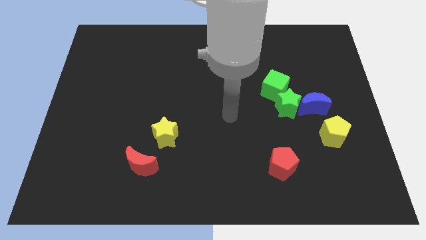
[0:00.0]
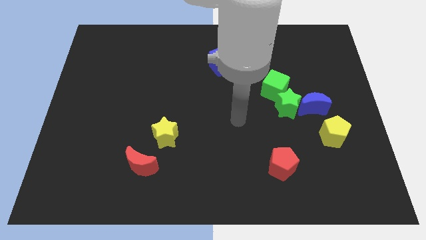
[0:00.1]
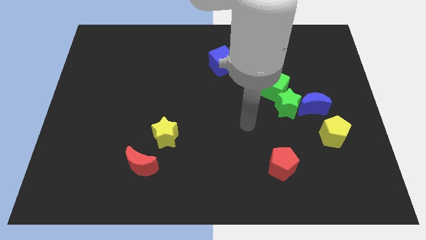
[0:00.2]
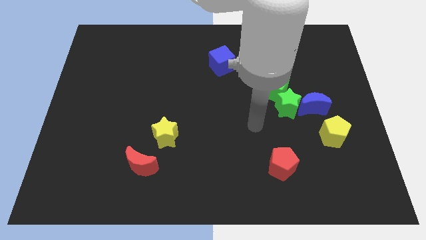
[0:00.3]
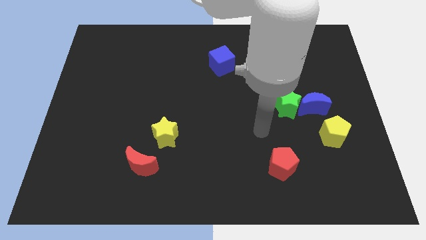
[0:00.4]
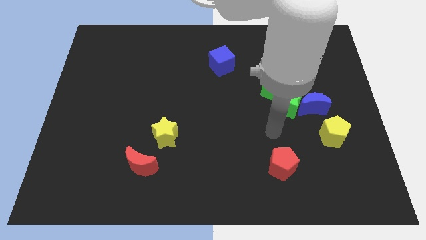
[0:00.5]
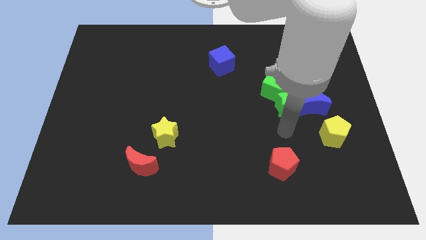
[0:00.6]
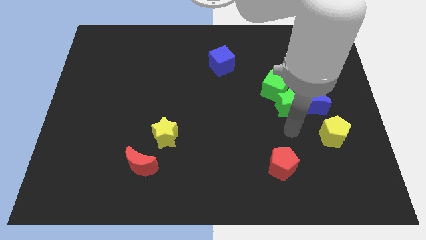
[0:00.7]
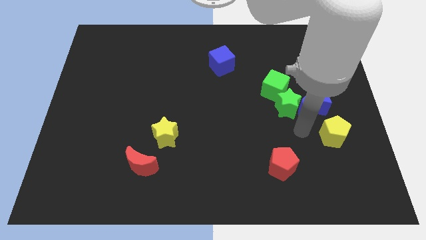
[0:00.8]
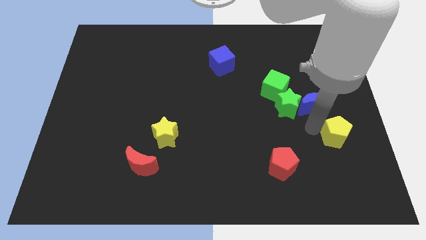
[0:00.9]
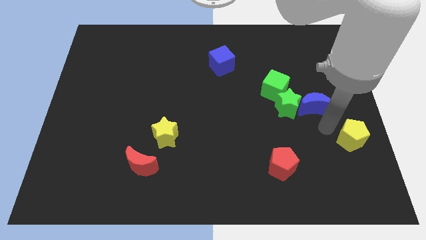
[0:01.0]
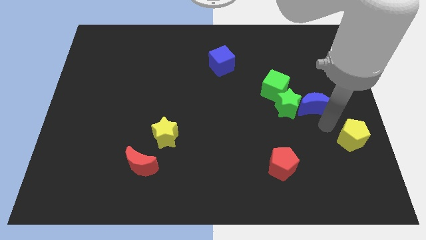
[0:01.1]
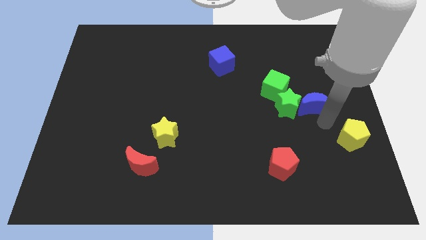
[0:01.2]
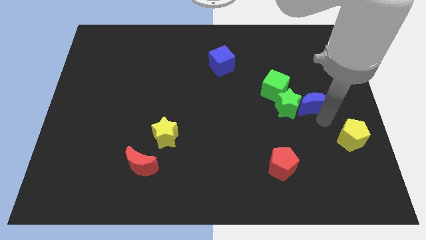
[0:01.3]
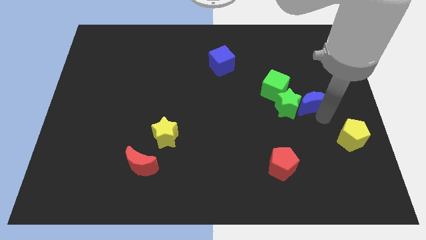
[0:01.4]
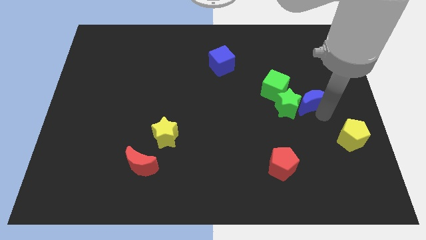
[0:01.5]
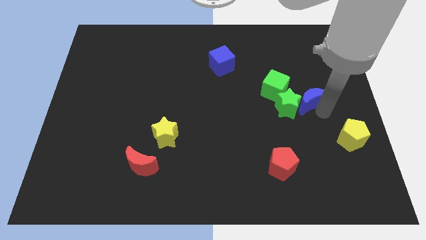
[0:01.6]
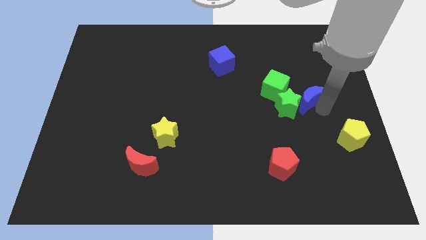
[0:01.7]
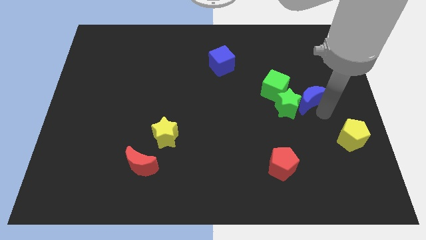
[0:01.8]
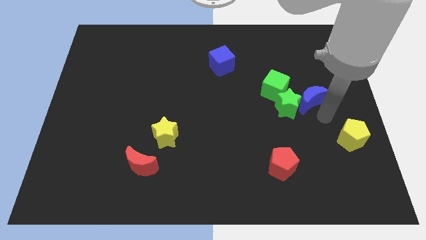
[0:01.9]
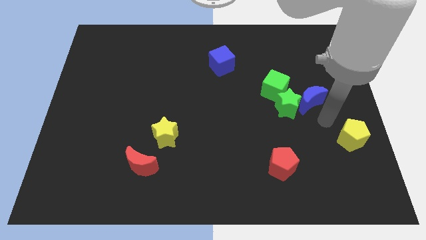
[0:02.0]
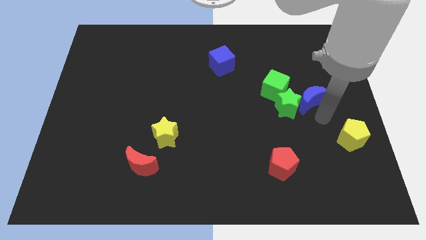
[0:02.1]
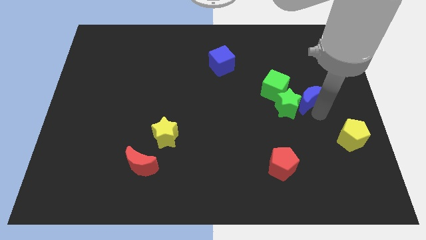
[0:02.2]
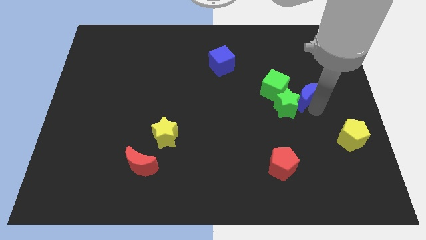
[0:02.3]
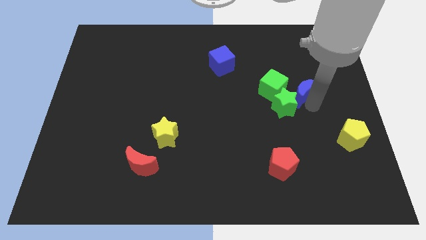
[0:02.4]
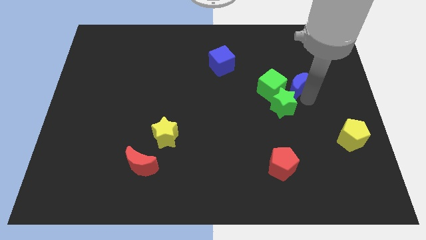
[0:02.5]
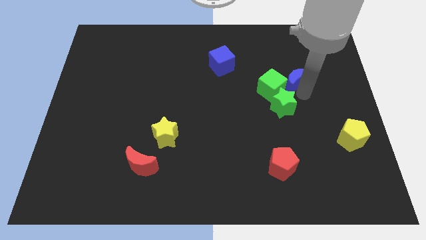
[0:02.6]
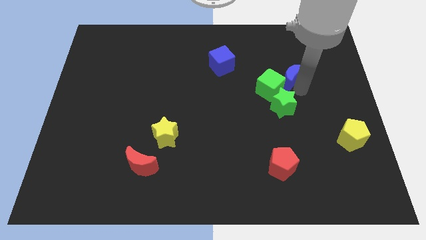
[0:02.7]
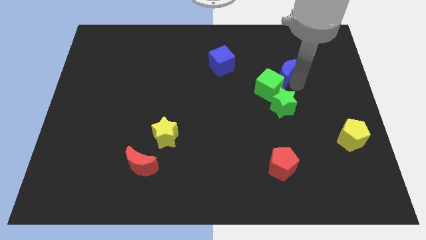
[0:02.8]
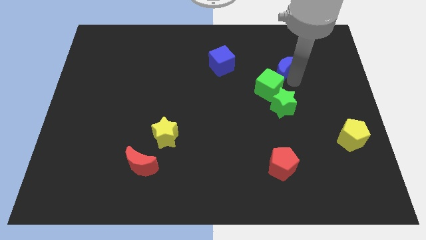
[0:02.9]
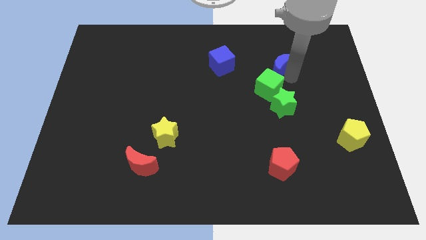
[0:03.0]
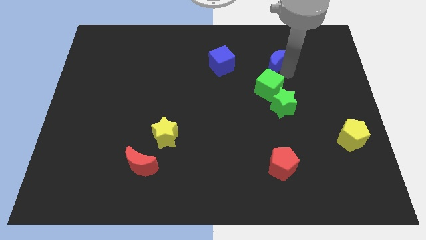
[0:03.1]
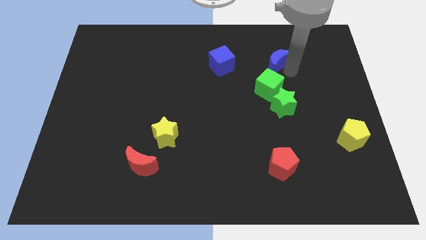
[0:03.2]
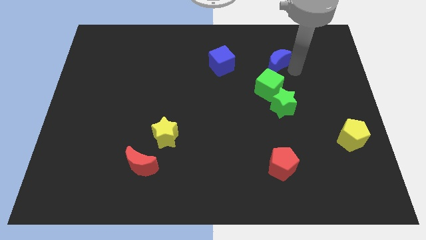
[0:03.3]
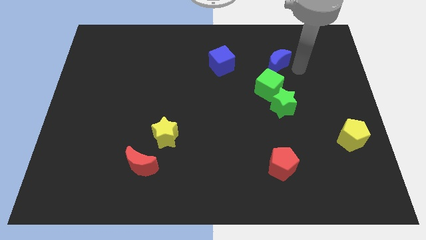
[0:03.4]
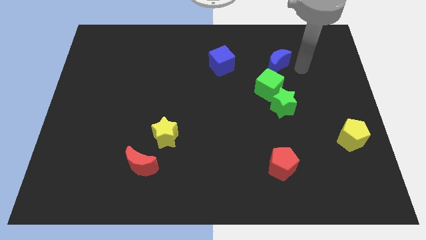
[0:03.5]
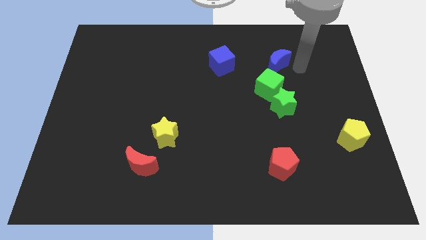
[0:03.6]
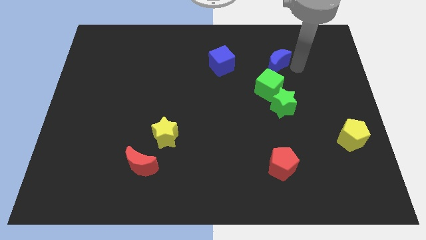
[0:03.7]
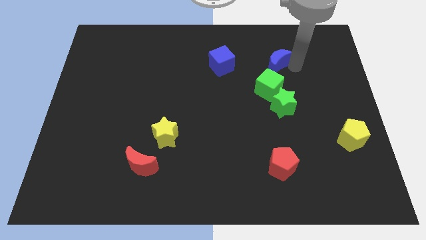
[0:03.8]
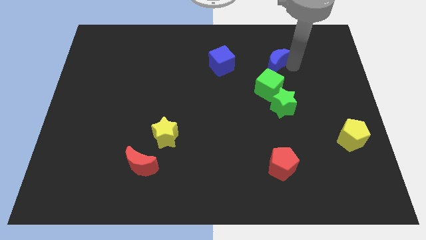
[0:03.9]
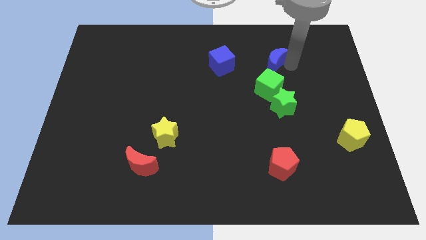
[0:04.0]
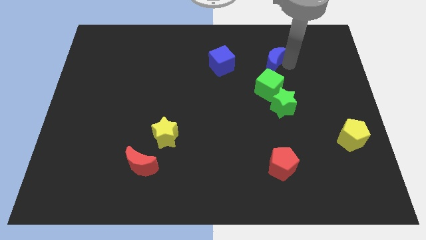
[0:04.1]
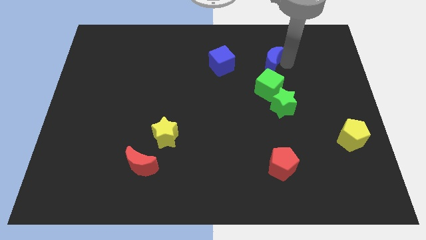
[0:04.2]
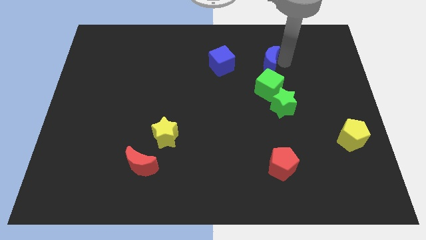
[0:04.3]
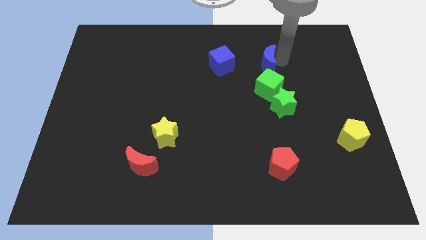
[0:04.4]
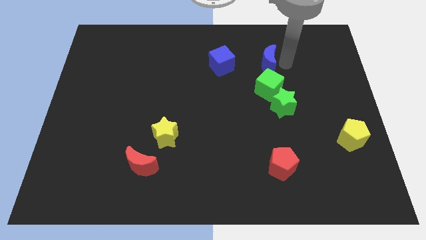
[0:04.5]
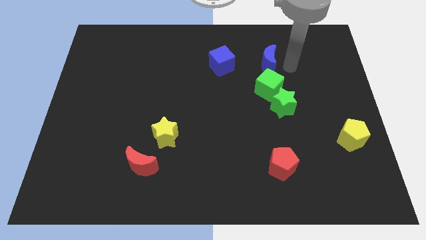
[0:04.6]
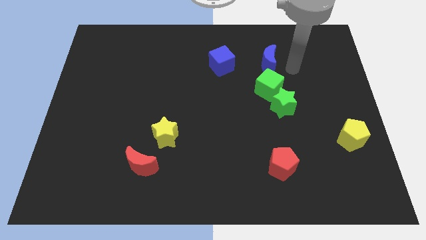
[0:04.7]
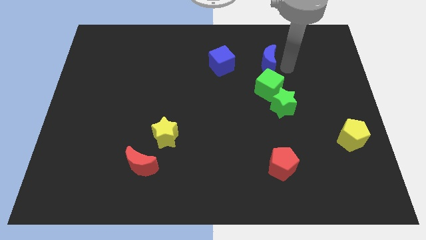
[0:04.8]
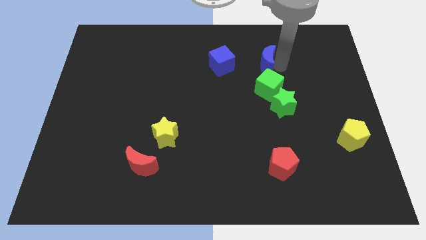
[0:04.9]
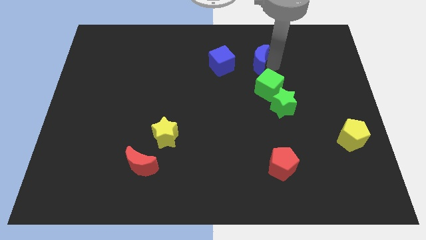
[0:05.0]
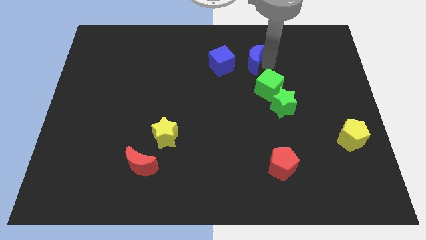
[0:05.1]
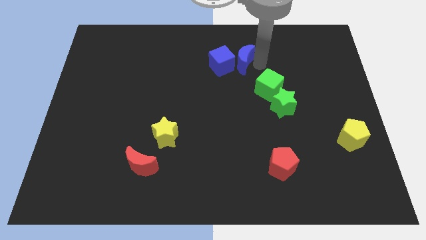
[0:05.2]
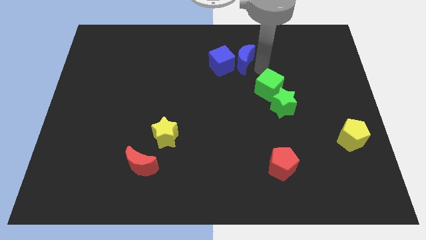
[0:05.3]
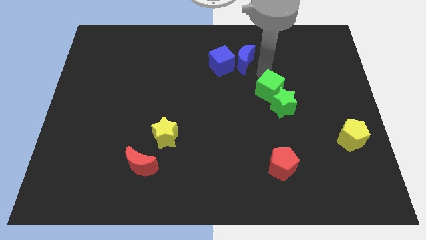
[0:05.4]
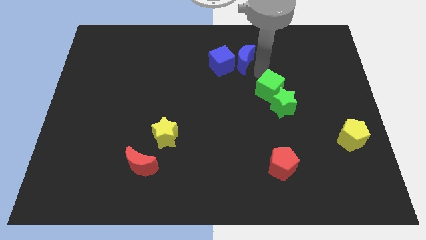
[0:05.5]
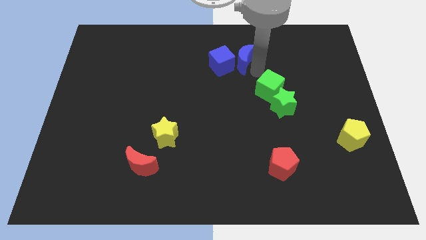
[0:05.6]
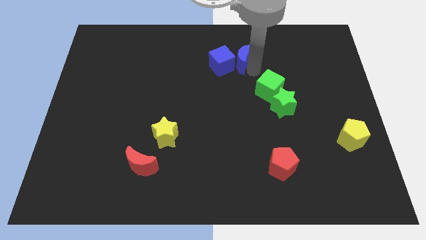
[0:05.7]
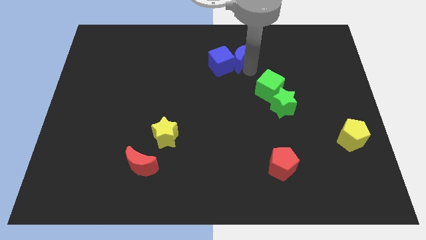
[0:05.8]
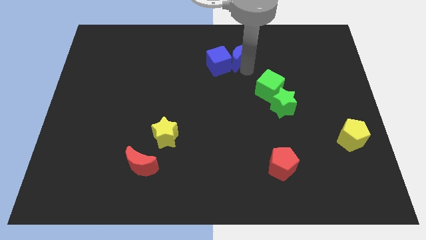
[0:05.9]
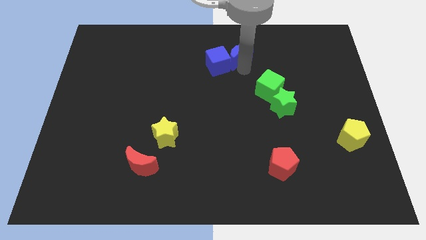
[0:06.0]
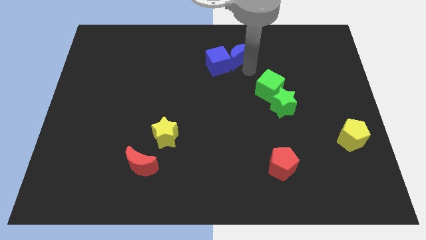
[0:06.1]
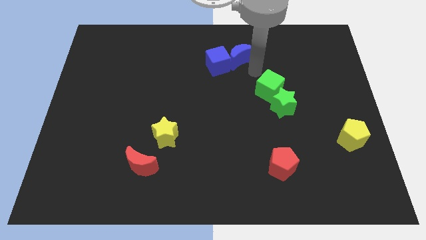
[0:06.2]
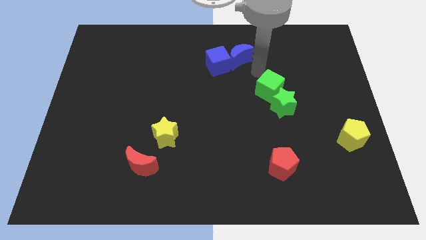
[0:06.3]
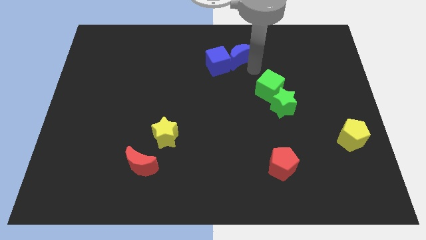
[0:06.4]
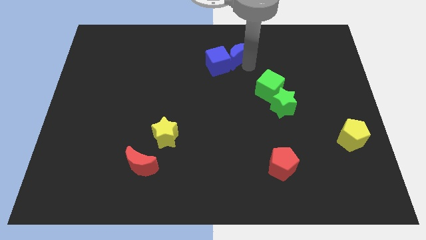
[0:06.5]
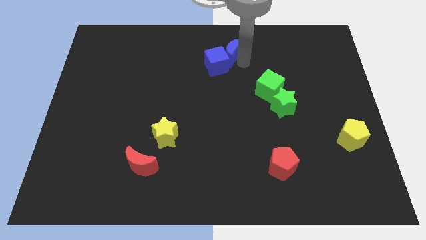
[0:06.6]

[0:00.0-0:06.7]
slide the blue moon to the top
